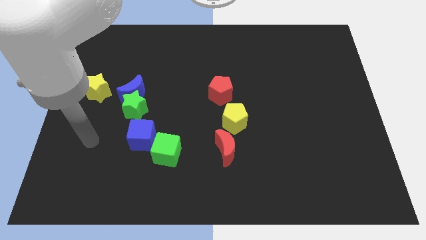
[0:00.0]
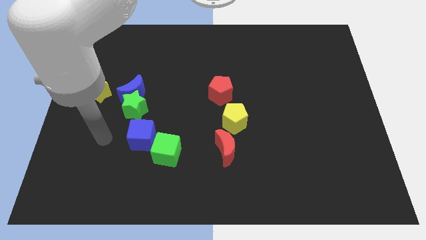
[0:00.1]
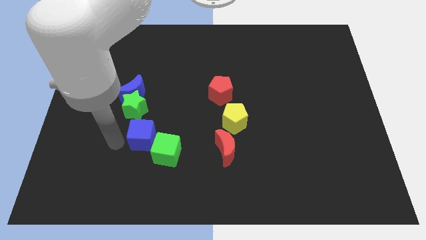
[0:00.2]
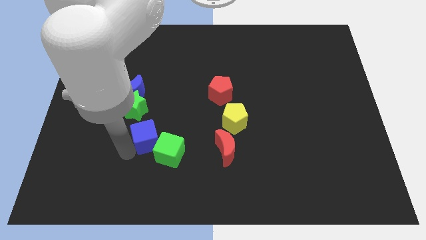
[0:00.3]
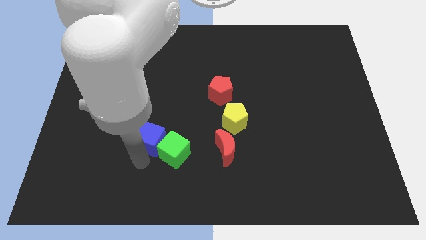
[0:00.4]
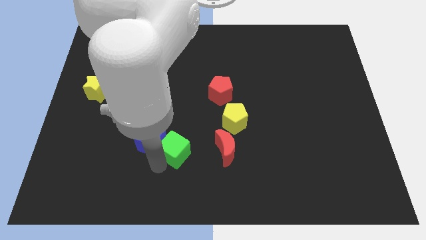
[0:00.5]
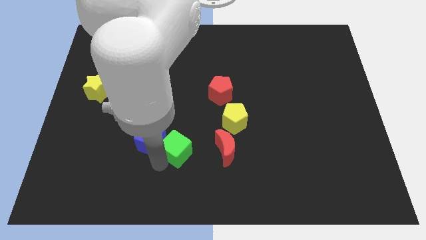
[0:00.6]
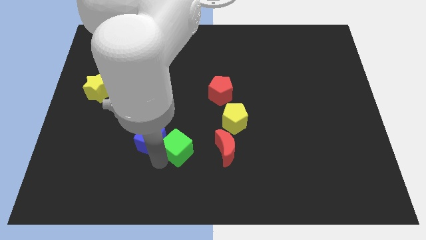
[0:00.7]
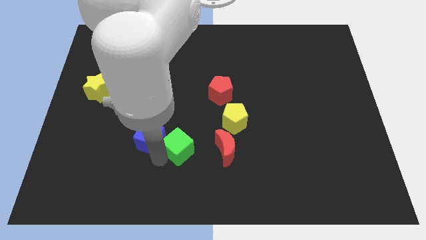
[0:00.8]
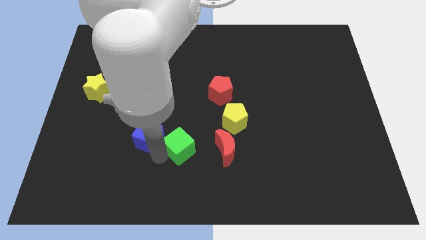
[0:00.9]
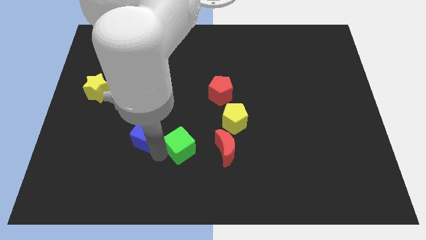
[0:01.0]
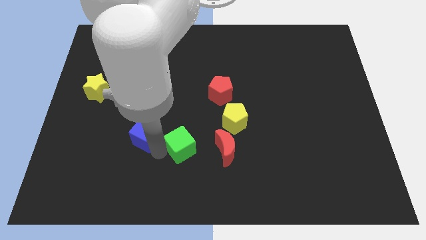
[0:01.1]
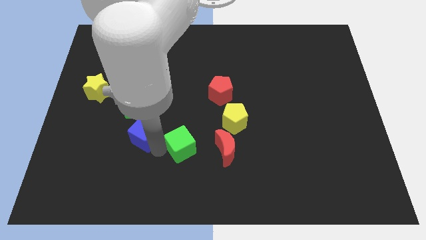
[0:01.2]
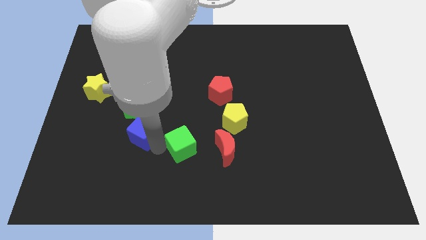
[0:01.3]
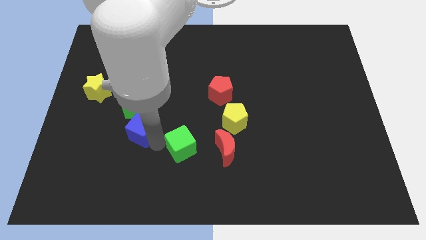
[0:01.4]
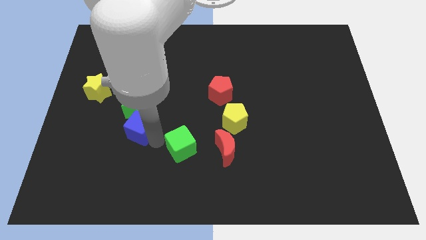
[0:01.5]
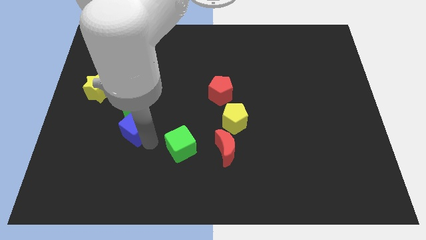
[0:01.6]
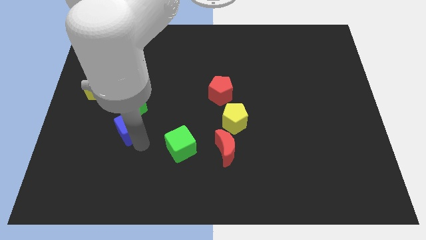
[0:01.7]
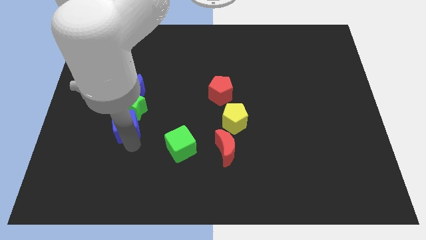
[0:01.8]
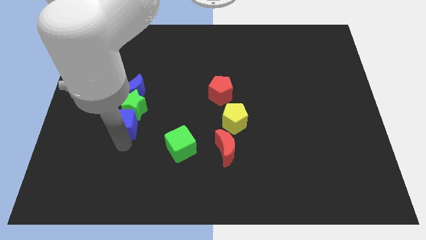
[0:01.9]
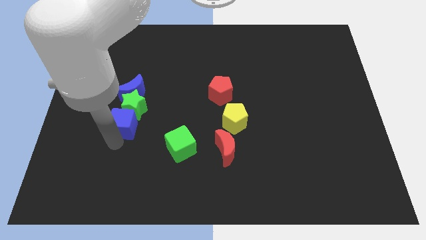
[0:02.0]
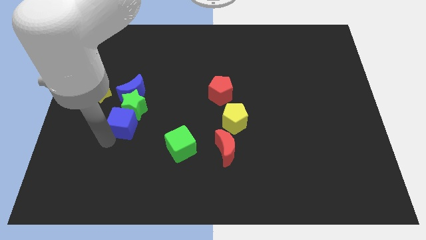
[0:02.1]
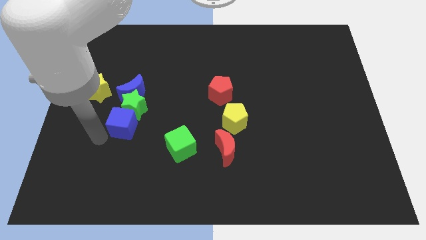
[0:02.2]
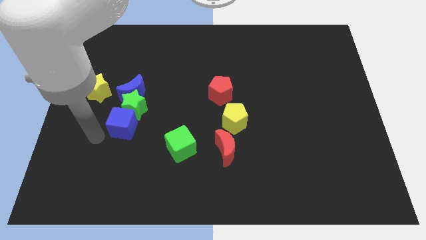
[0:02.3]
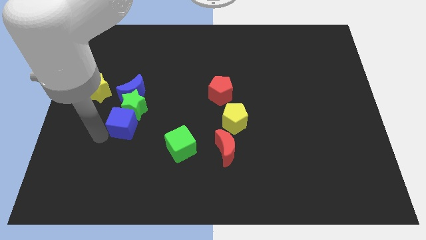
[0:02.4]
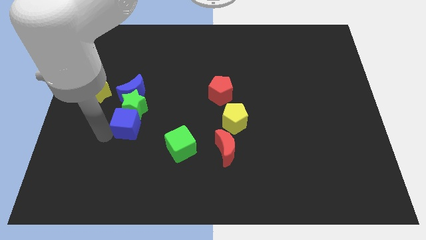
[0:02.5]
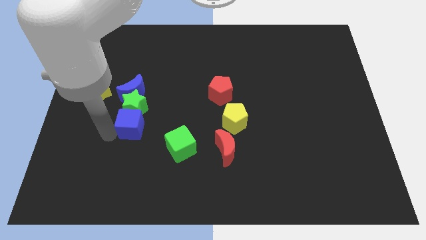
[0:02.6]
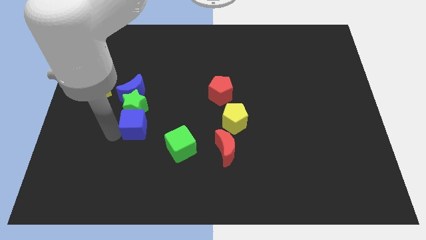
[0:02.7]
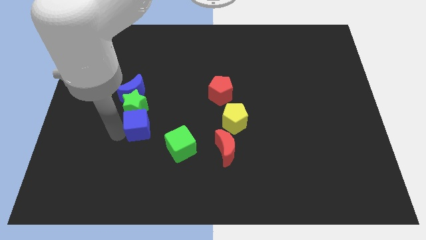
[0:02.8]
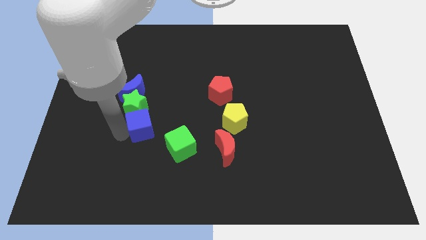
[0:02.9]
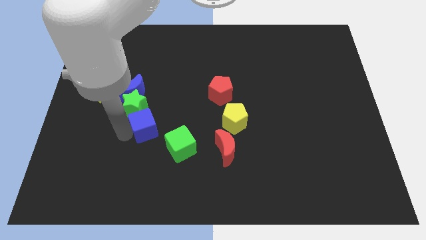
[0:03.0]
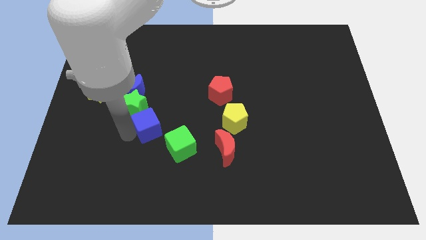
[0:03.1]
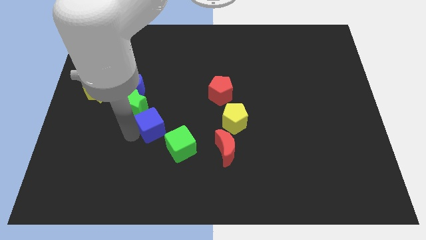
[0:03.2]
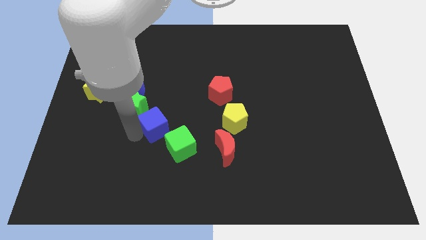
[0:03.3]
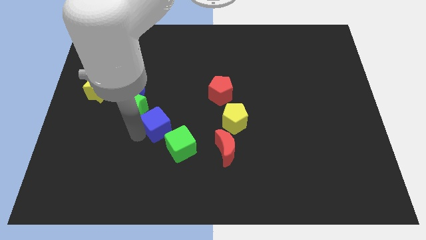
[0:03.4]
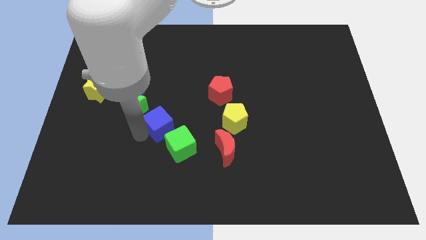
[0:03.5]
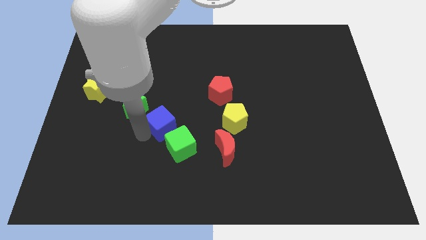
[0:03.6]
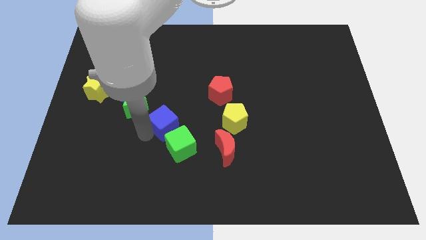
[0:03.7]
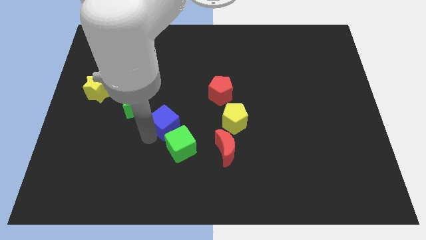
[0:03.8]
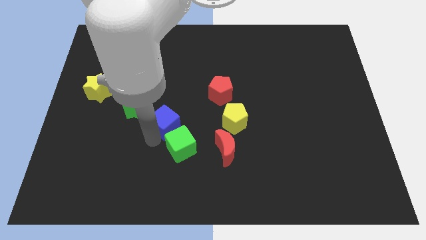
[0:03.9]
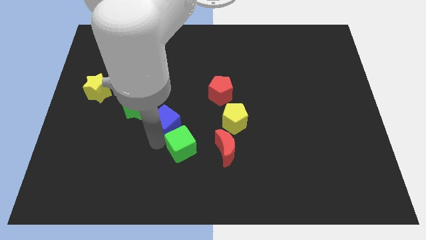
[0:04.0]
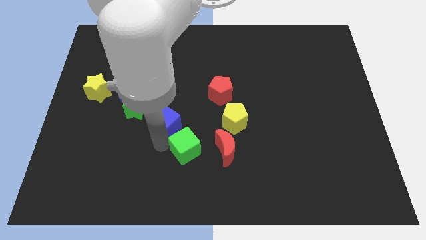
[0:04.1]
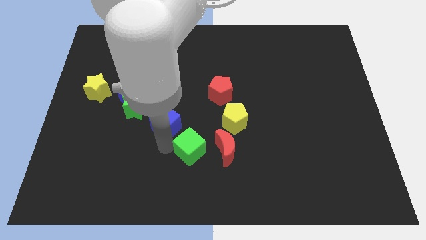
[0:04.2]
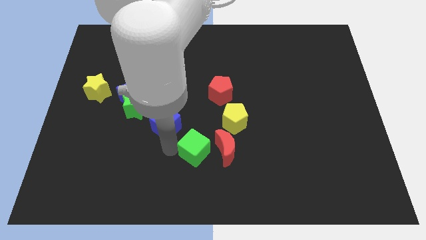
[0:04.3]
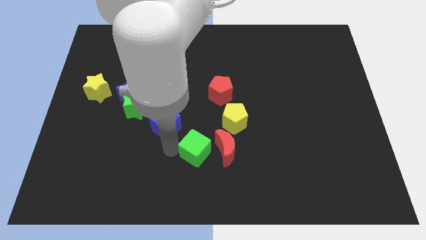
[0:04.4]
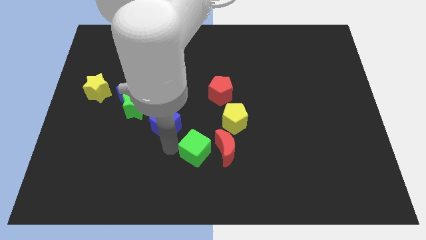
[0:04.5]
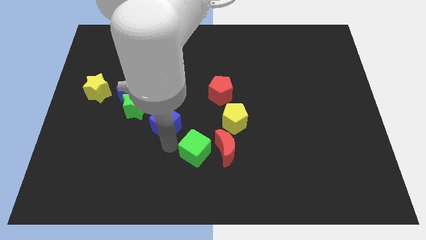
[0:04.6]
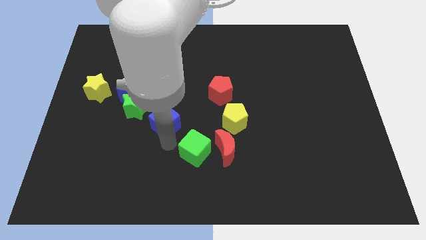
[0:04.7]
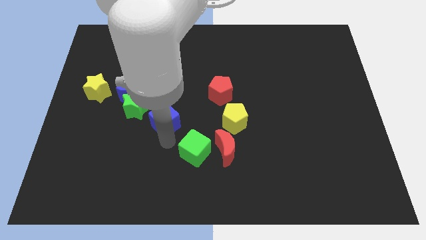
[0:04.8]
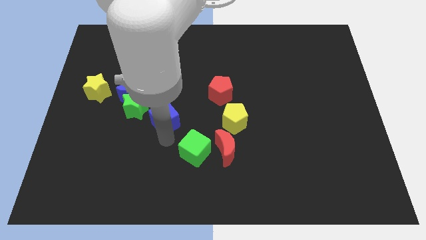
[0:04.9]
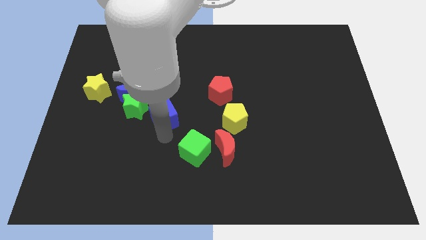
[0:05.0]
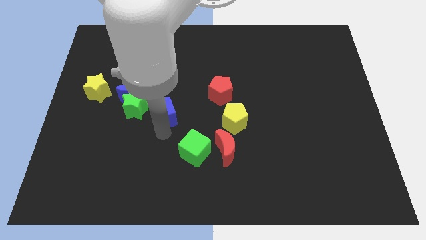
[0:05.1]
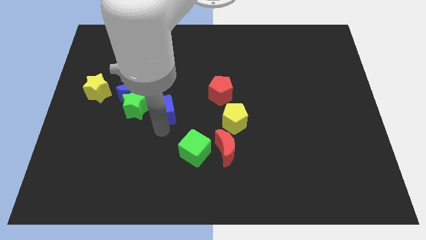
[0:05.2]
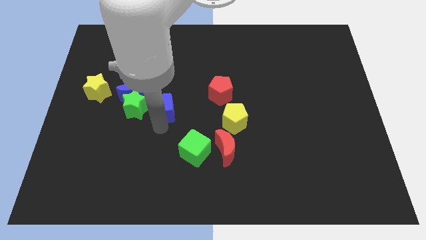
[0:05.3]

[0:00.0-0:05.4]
slightly move the blue cube up

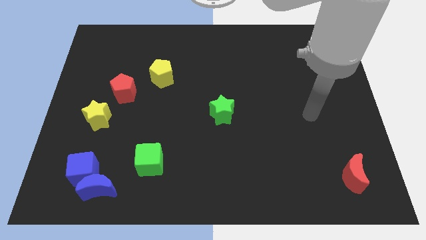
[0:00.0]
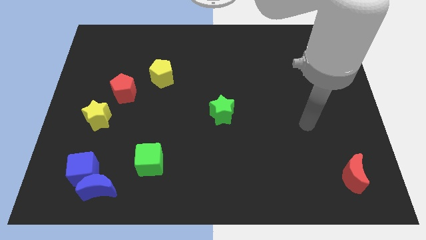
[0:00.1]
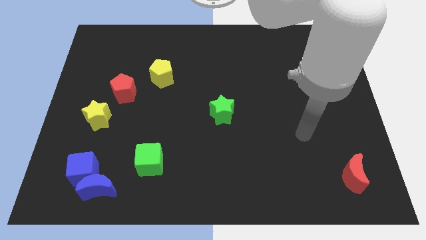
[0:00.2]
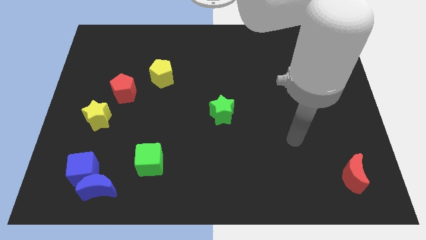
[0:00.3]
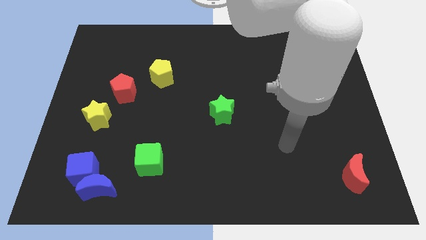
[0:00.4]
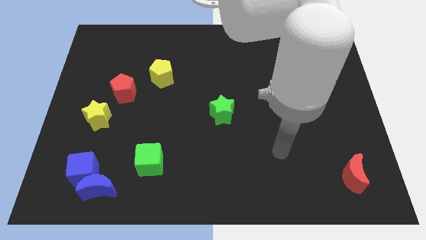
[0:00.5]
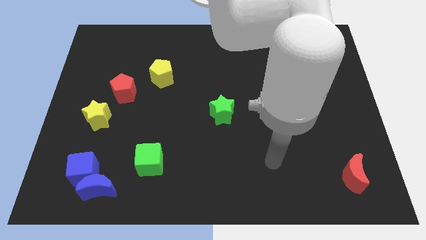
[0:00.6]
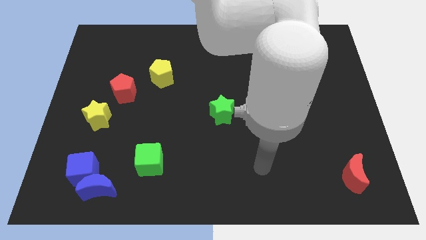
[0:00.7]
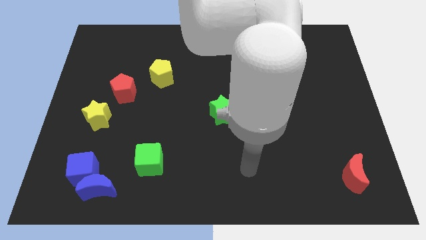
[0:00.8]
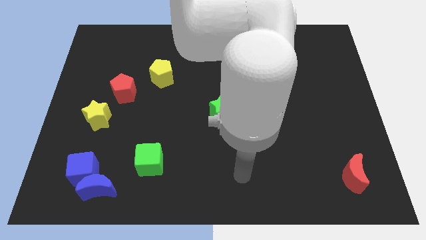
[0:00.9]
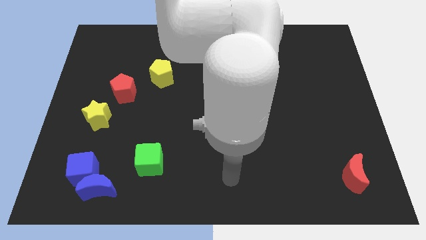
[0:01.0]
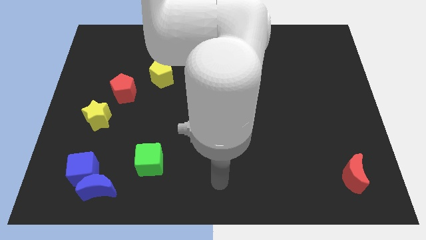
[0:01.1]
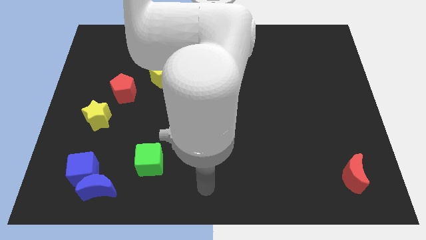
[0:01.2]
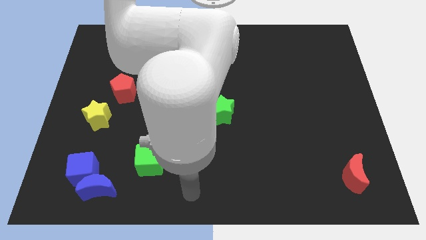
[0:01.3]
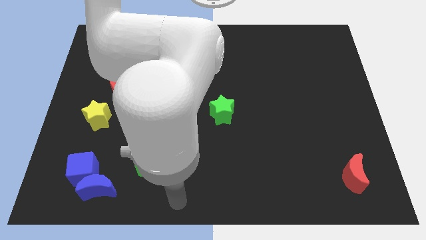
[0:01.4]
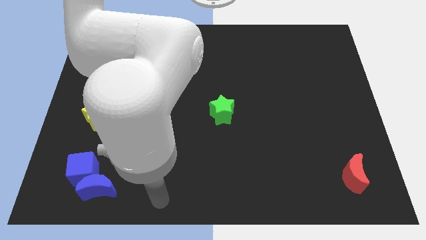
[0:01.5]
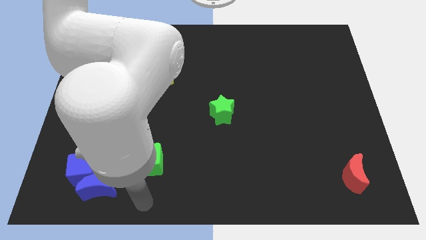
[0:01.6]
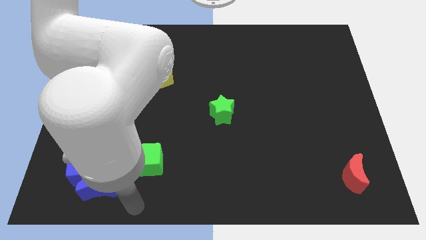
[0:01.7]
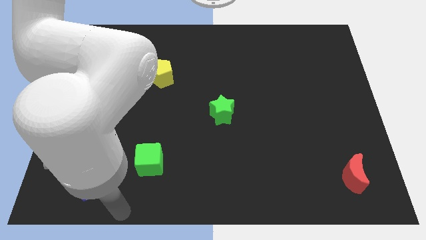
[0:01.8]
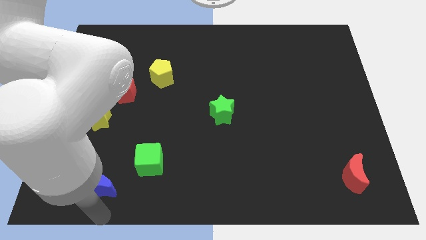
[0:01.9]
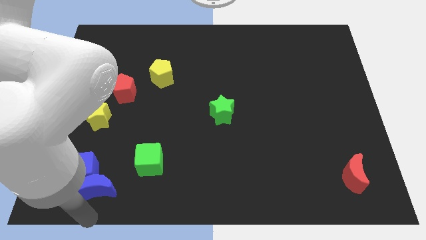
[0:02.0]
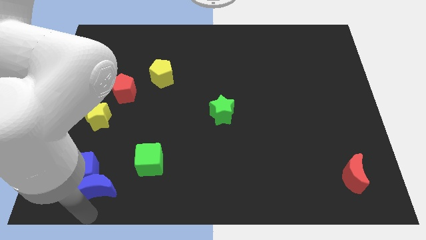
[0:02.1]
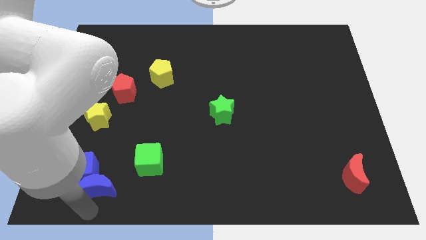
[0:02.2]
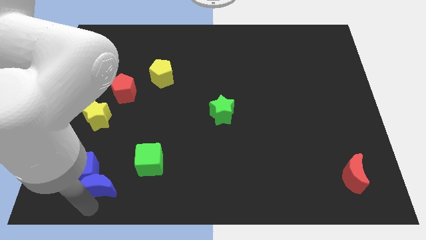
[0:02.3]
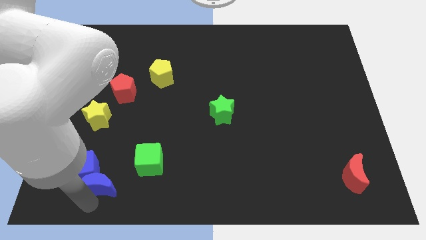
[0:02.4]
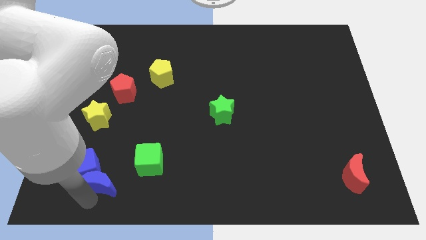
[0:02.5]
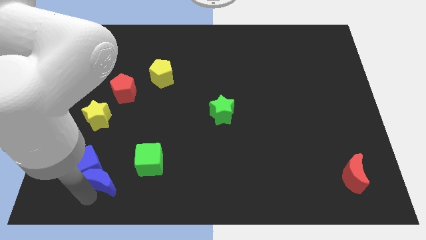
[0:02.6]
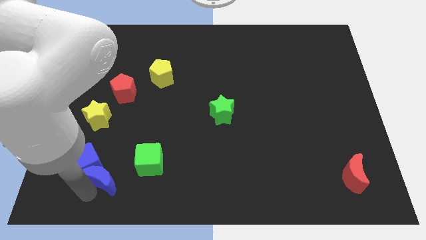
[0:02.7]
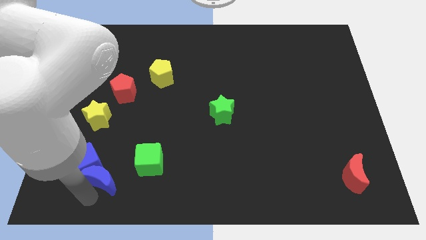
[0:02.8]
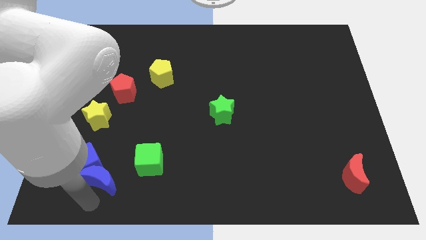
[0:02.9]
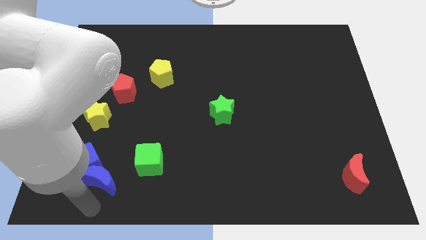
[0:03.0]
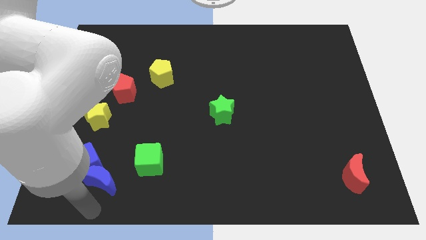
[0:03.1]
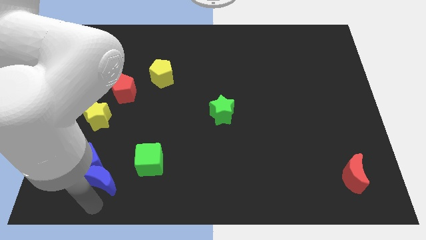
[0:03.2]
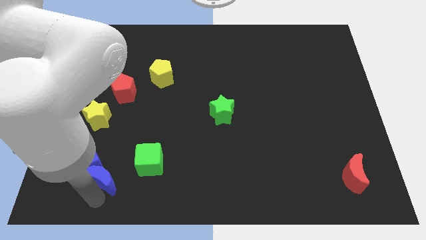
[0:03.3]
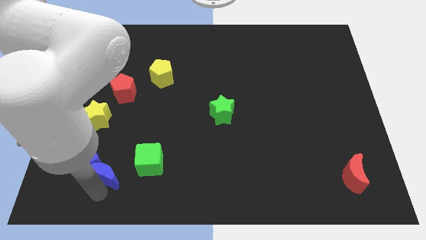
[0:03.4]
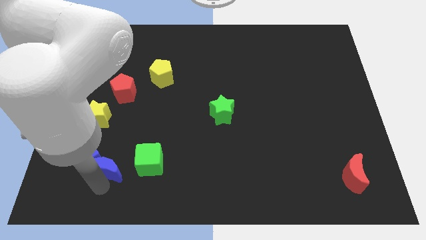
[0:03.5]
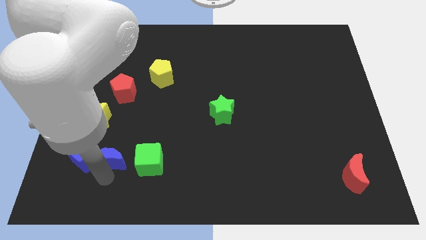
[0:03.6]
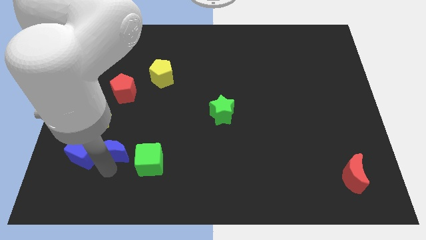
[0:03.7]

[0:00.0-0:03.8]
slide the blue moon a little upwards
